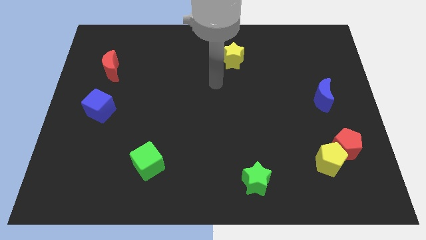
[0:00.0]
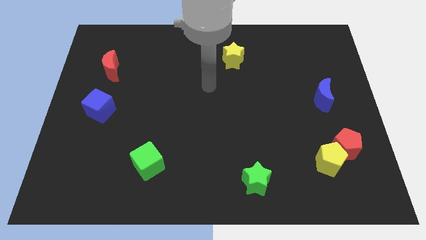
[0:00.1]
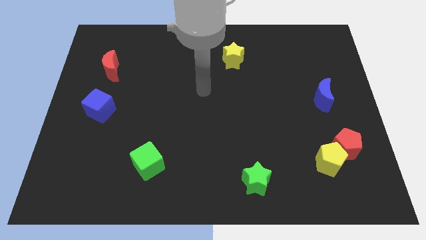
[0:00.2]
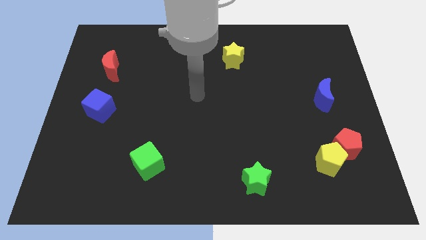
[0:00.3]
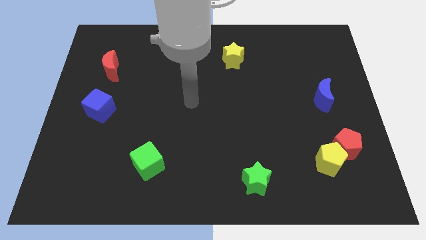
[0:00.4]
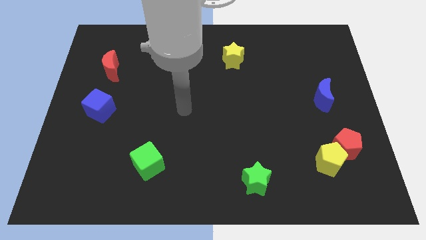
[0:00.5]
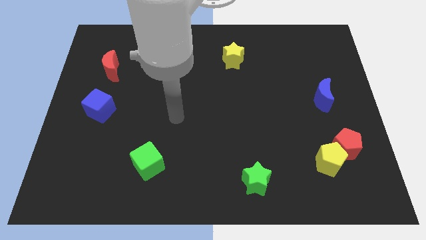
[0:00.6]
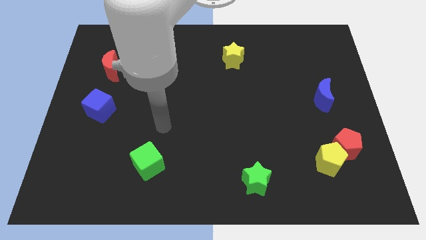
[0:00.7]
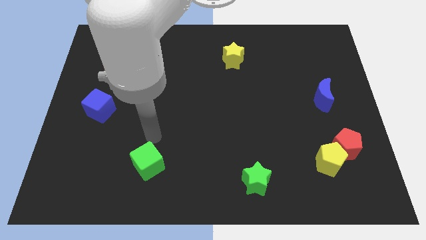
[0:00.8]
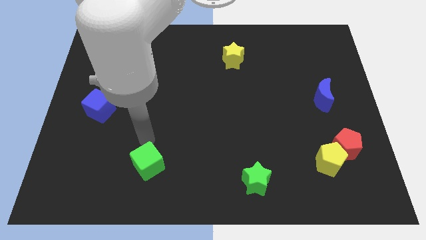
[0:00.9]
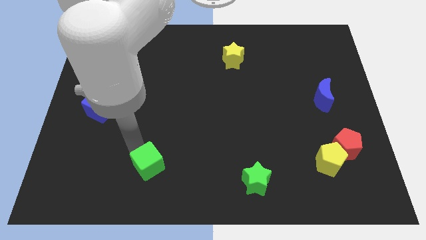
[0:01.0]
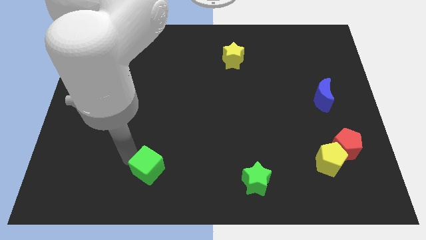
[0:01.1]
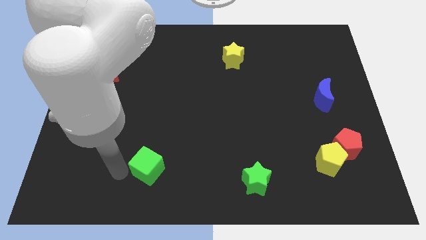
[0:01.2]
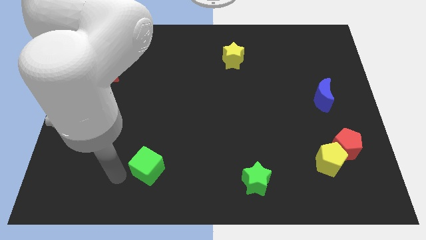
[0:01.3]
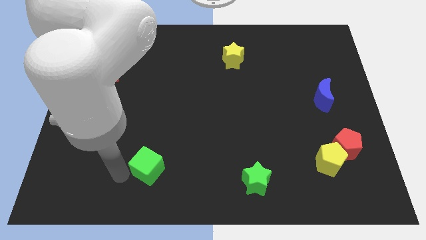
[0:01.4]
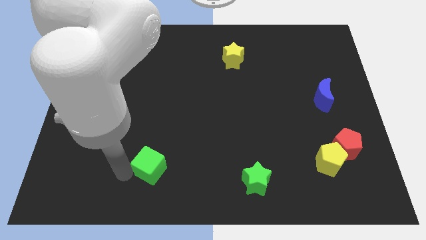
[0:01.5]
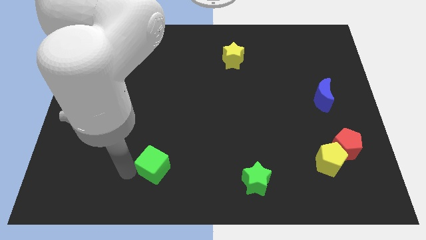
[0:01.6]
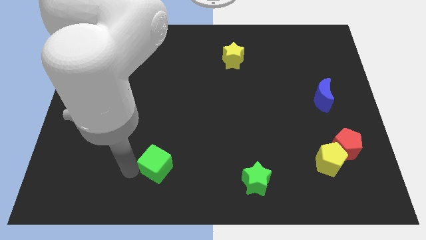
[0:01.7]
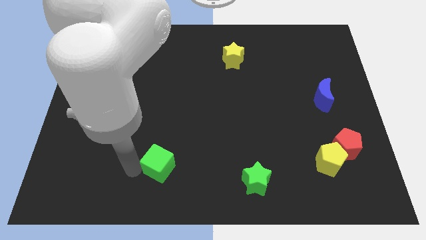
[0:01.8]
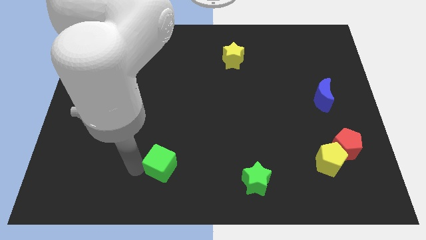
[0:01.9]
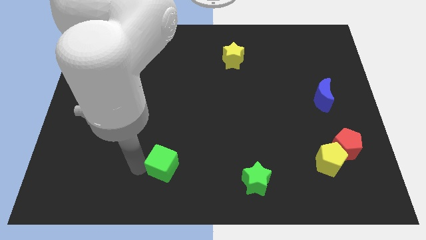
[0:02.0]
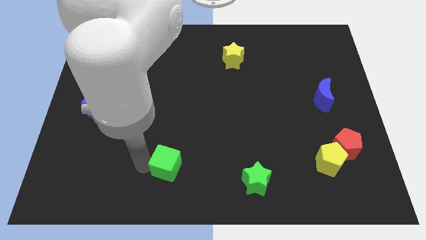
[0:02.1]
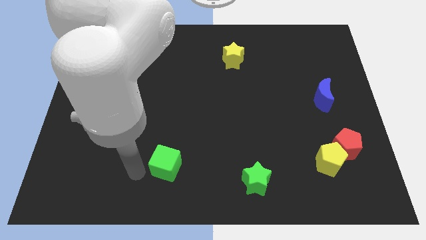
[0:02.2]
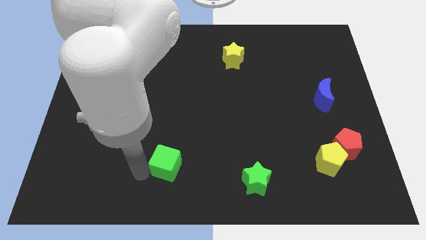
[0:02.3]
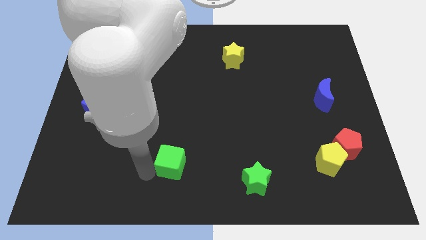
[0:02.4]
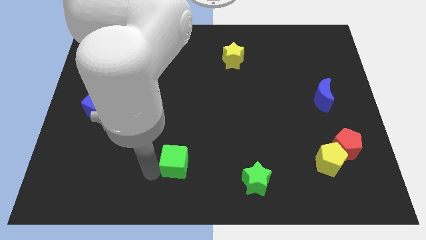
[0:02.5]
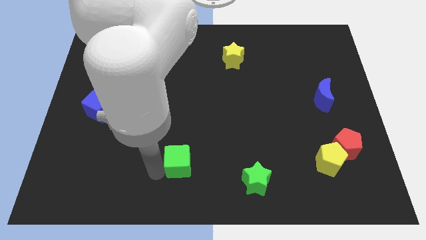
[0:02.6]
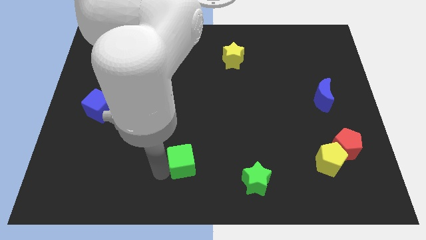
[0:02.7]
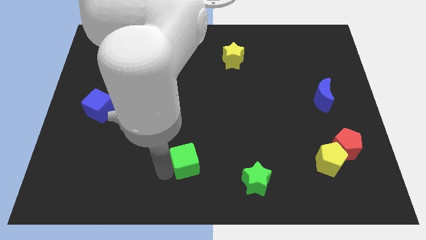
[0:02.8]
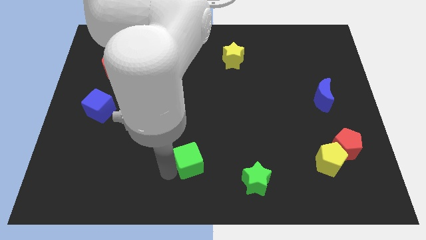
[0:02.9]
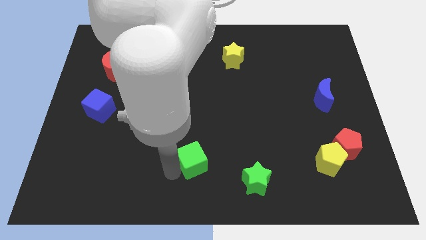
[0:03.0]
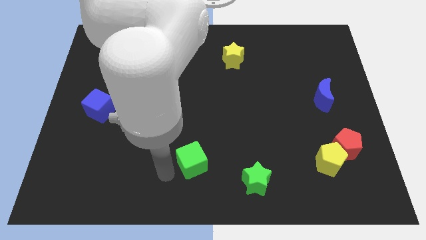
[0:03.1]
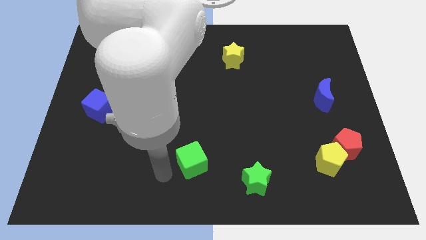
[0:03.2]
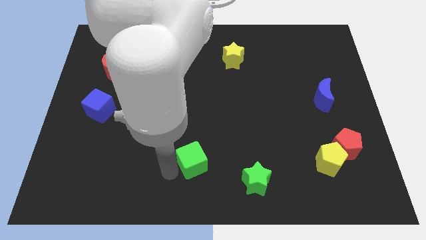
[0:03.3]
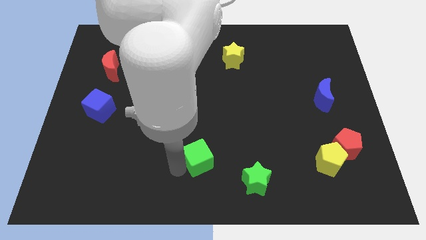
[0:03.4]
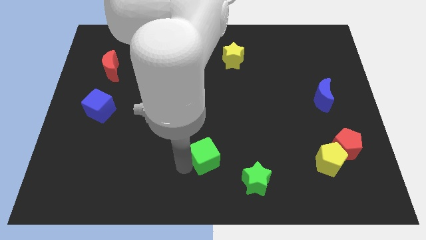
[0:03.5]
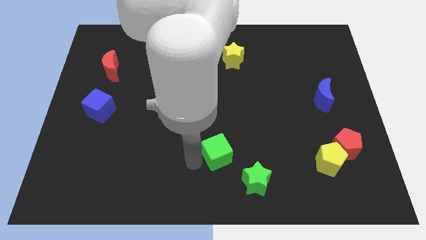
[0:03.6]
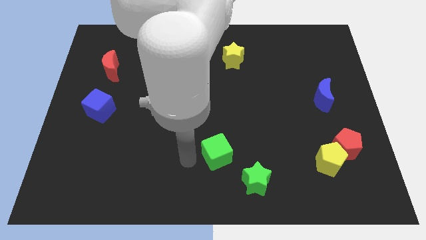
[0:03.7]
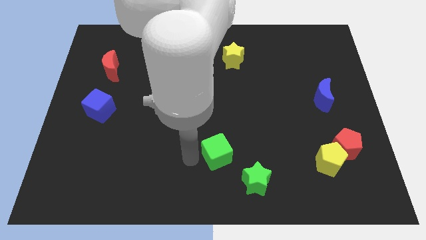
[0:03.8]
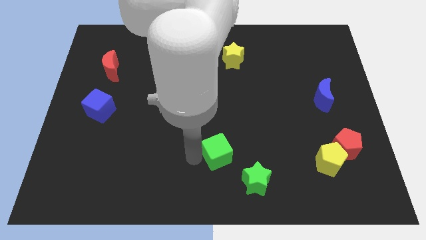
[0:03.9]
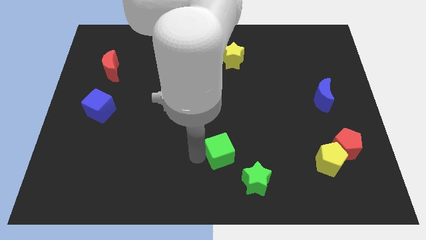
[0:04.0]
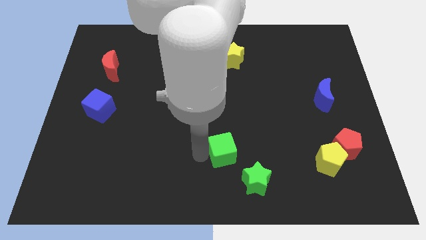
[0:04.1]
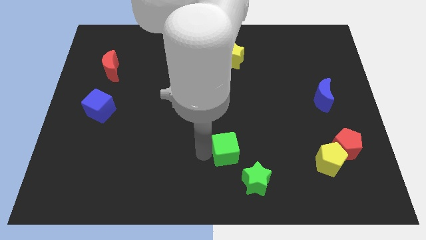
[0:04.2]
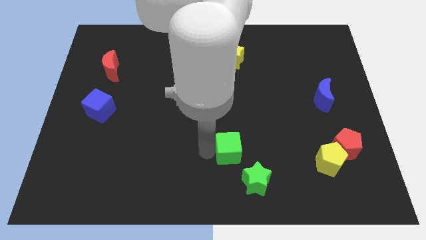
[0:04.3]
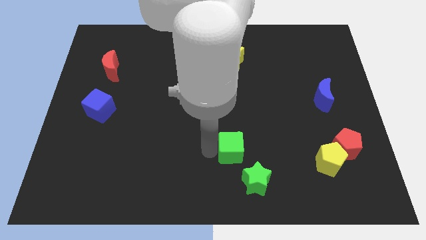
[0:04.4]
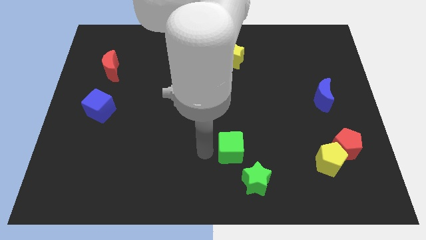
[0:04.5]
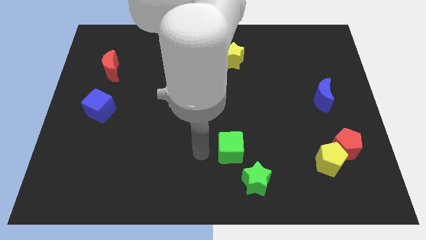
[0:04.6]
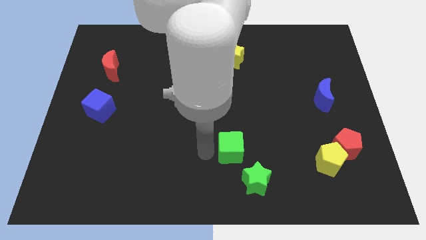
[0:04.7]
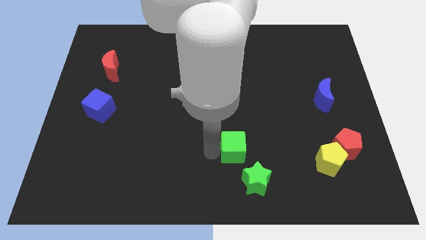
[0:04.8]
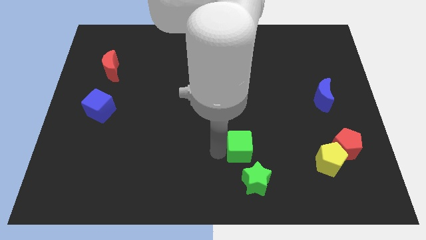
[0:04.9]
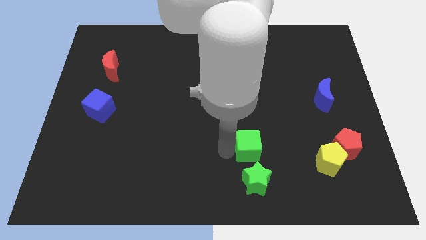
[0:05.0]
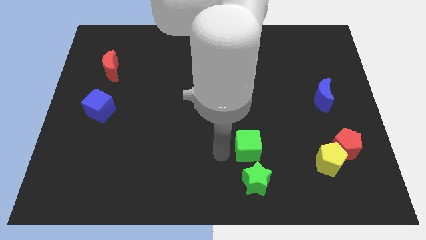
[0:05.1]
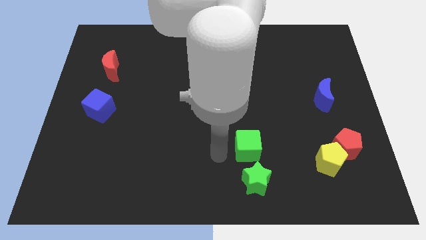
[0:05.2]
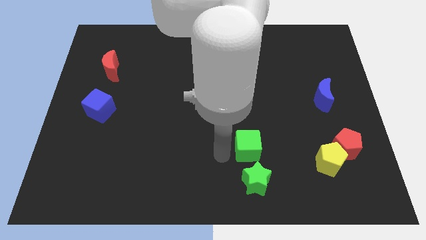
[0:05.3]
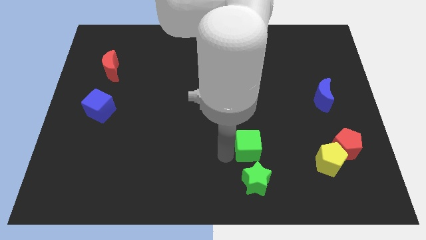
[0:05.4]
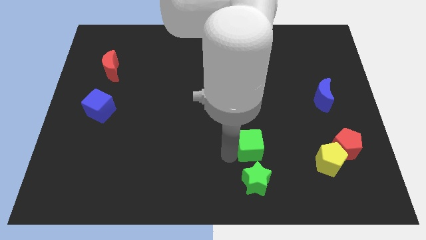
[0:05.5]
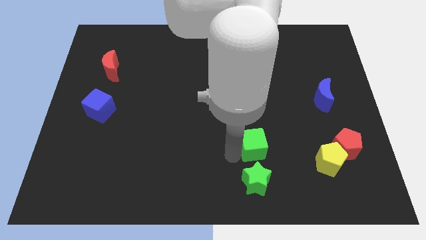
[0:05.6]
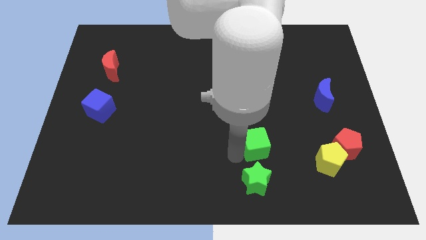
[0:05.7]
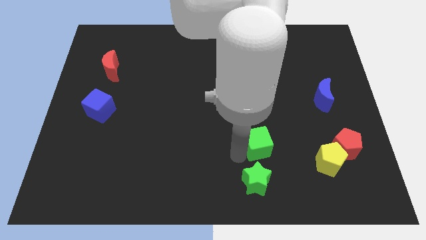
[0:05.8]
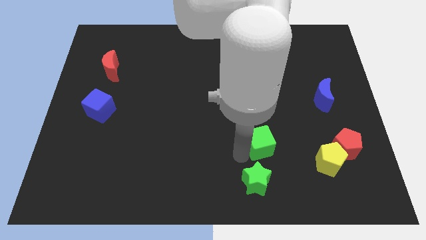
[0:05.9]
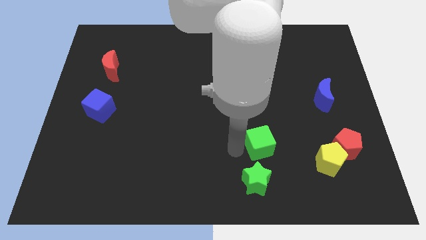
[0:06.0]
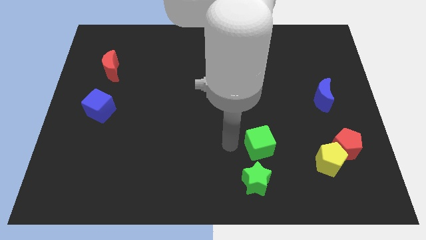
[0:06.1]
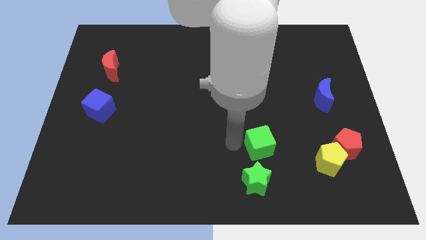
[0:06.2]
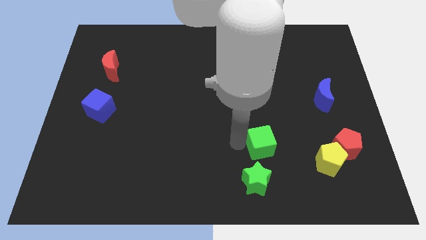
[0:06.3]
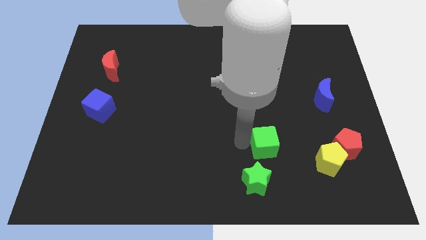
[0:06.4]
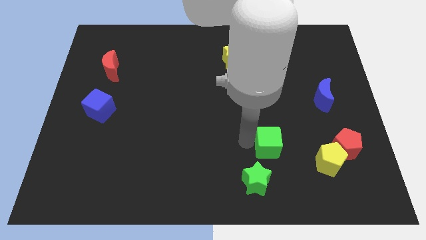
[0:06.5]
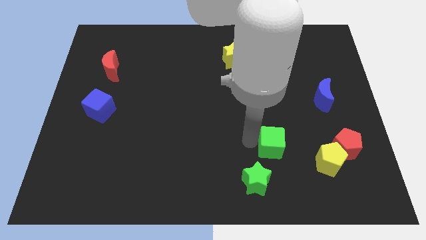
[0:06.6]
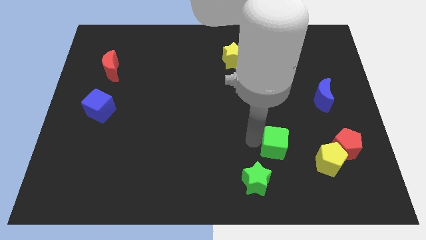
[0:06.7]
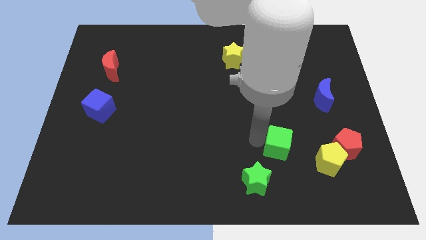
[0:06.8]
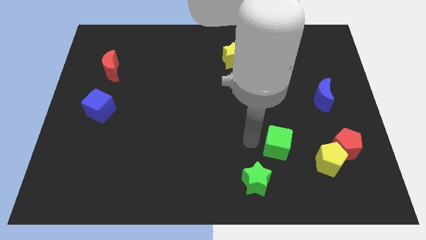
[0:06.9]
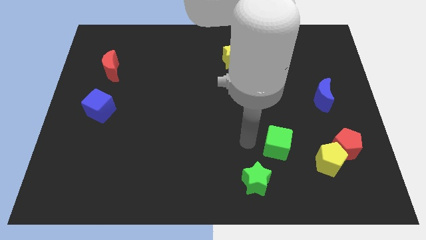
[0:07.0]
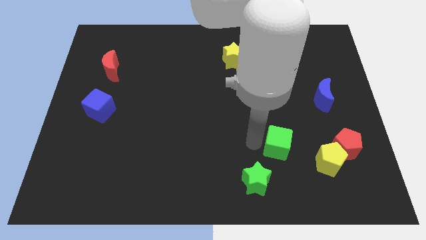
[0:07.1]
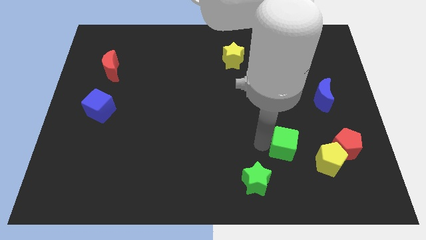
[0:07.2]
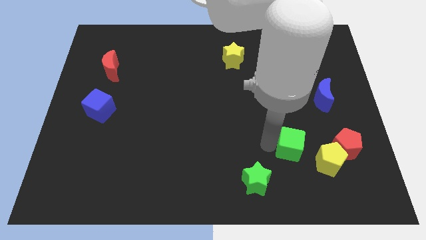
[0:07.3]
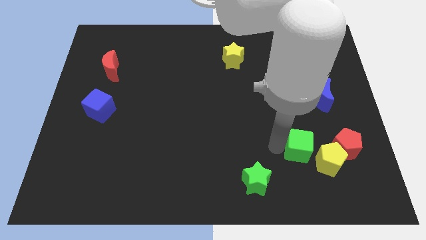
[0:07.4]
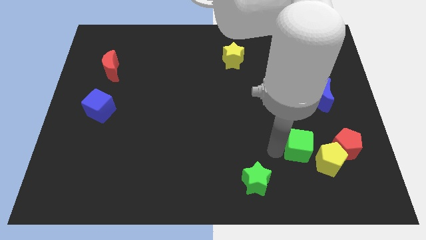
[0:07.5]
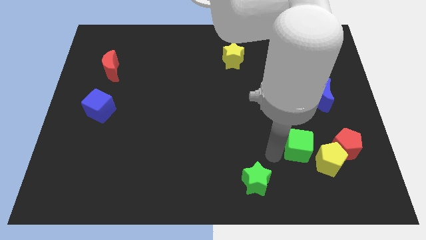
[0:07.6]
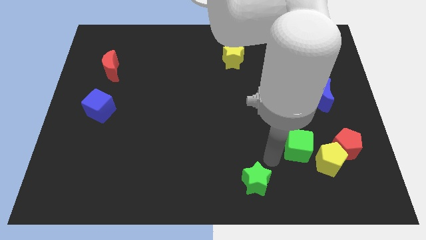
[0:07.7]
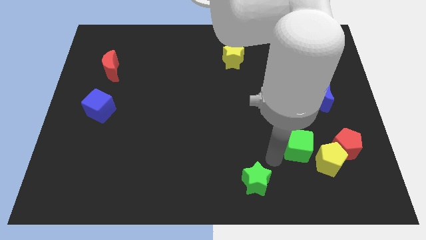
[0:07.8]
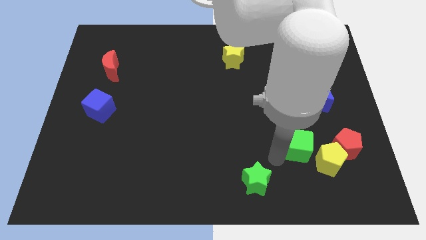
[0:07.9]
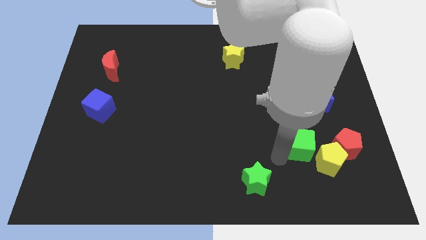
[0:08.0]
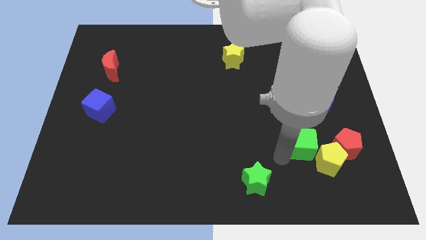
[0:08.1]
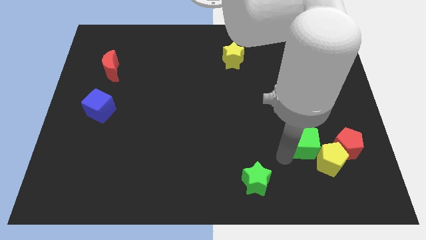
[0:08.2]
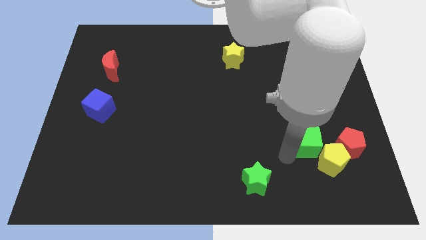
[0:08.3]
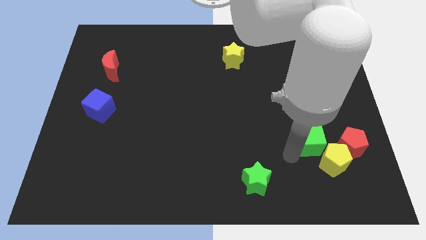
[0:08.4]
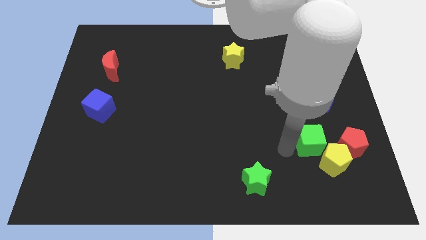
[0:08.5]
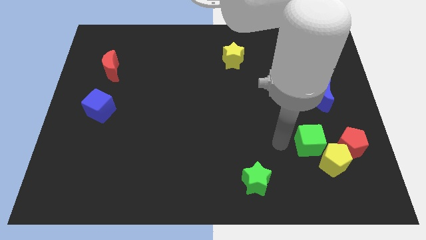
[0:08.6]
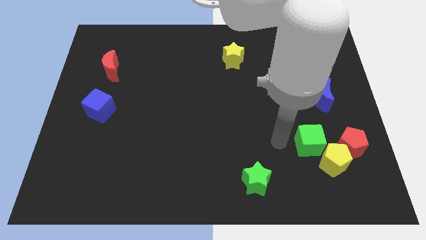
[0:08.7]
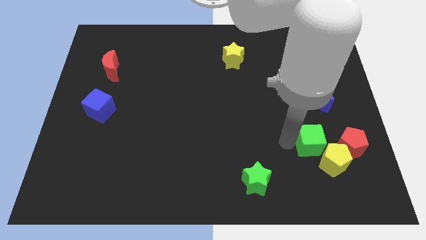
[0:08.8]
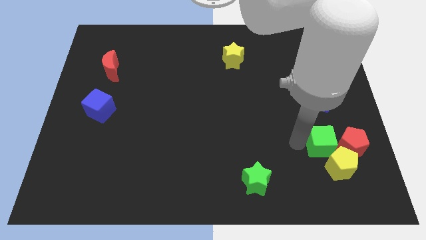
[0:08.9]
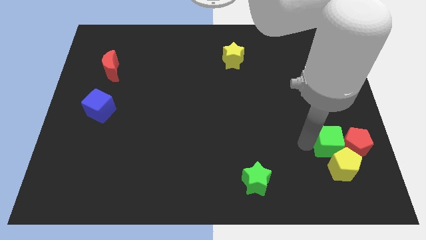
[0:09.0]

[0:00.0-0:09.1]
slide the green cube next to the red pentagon
